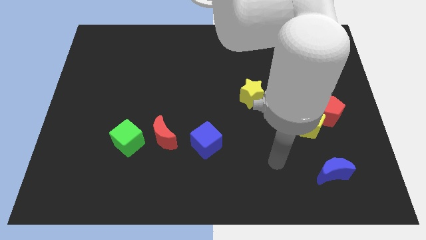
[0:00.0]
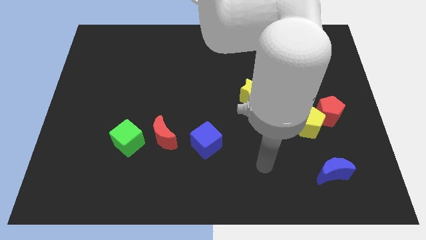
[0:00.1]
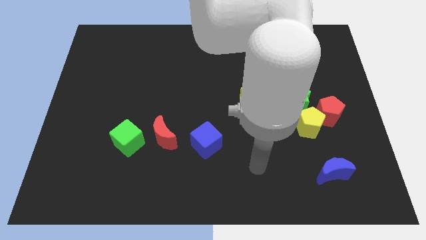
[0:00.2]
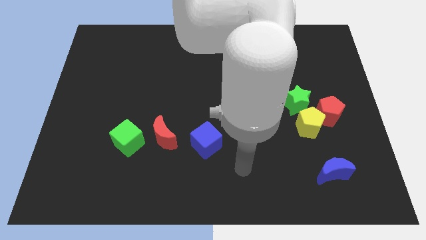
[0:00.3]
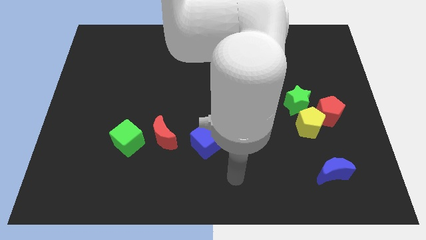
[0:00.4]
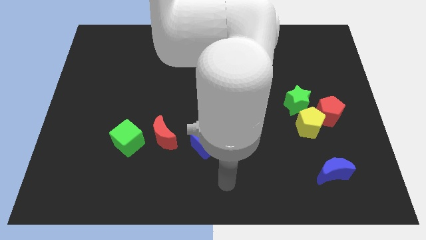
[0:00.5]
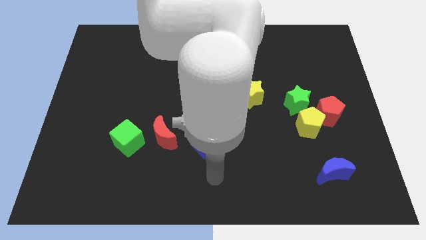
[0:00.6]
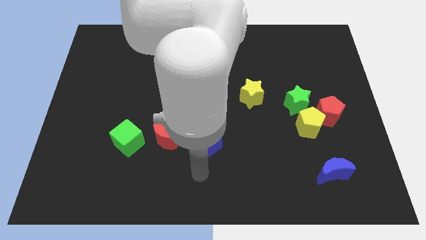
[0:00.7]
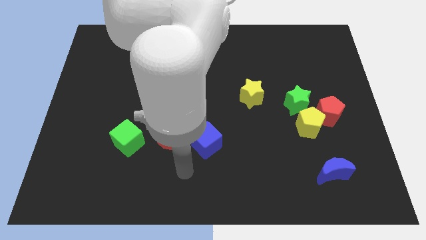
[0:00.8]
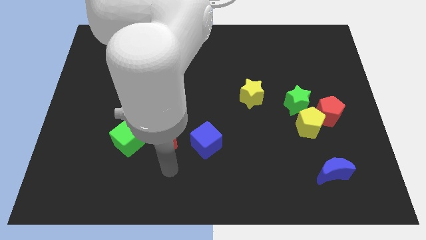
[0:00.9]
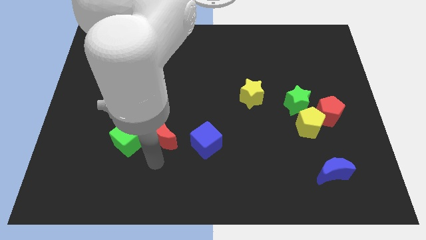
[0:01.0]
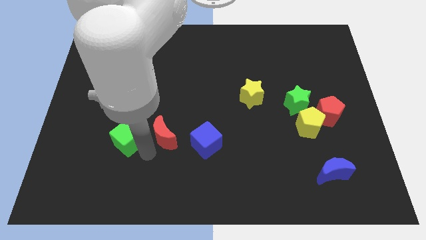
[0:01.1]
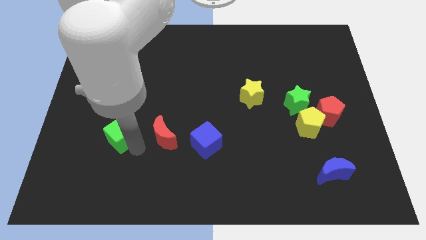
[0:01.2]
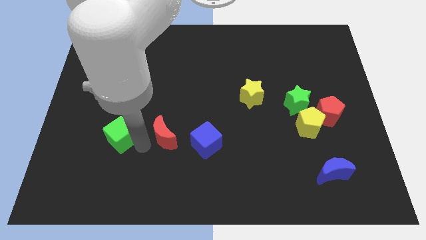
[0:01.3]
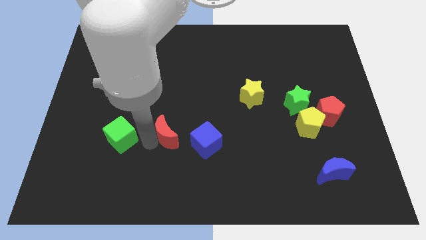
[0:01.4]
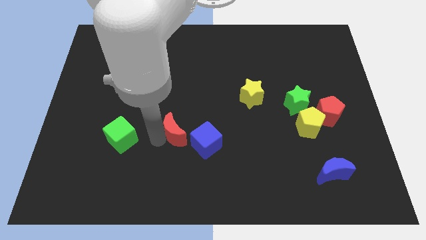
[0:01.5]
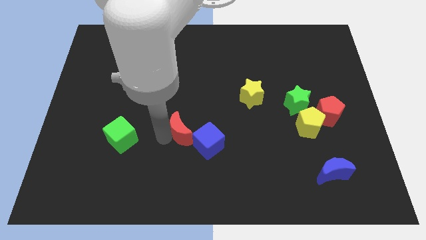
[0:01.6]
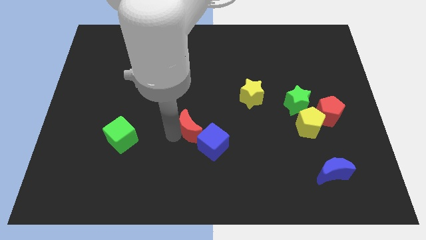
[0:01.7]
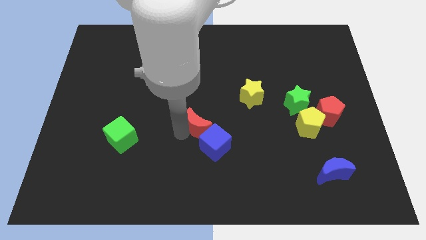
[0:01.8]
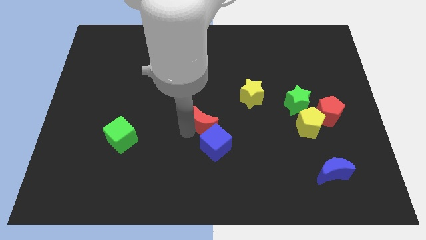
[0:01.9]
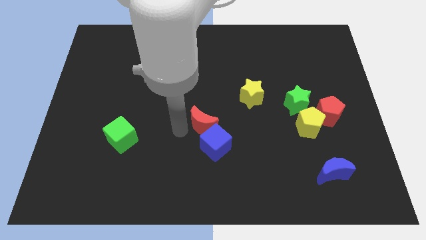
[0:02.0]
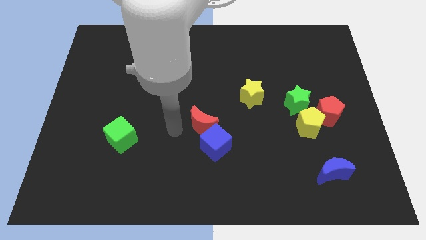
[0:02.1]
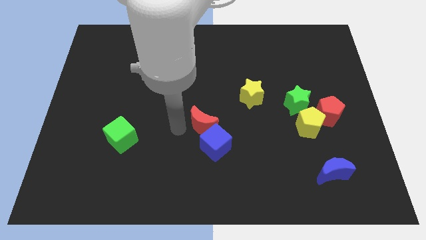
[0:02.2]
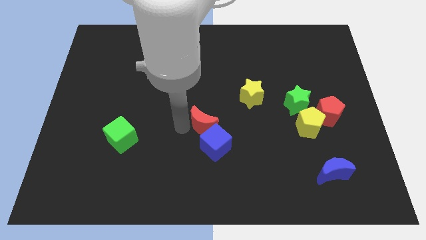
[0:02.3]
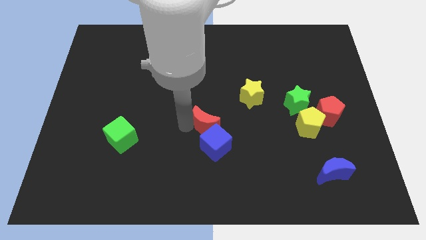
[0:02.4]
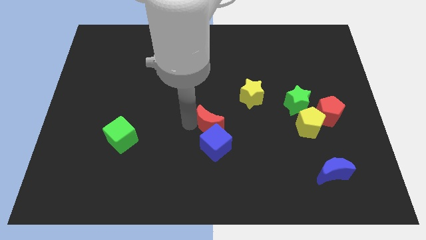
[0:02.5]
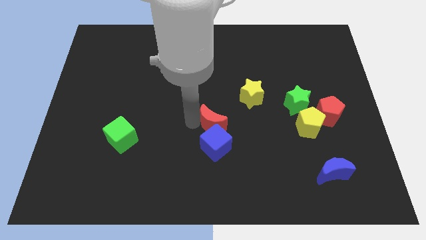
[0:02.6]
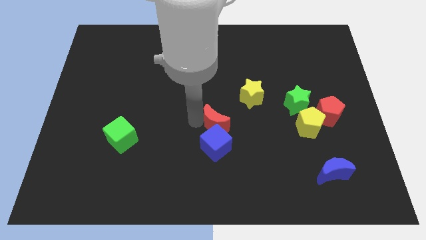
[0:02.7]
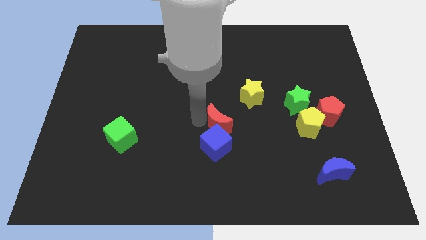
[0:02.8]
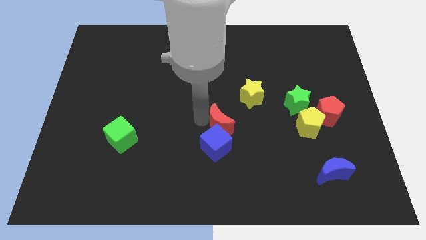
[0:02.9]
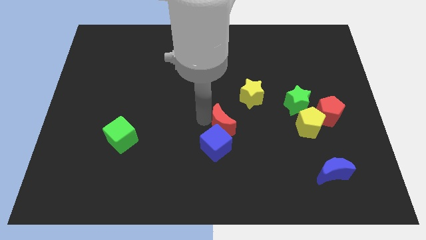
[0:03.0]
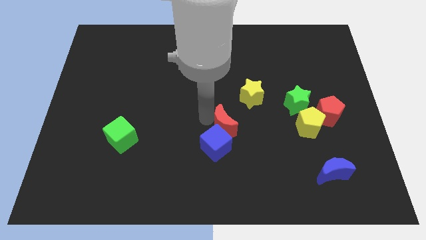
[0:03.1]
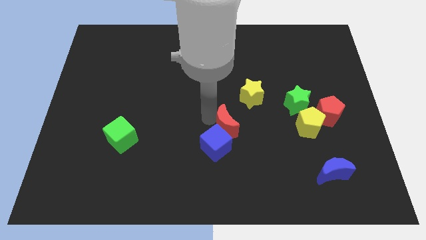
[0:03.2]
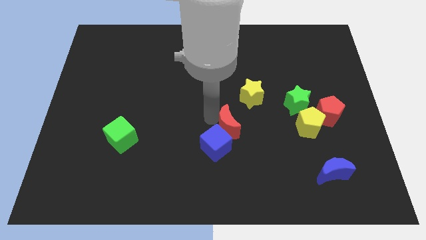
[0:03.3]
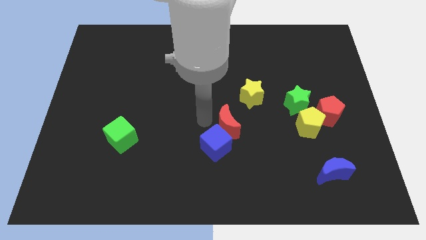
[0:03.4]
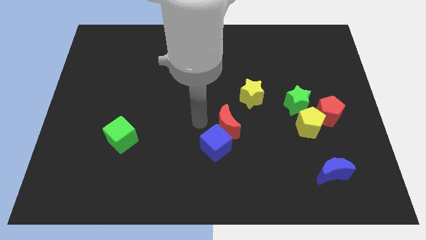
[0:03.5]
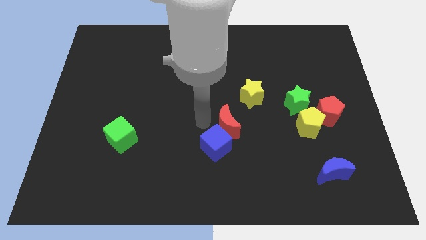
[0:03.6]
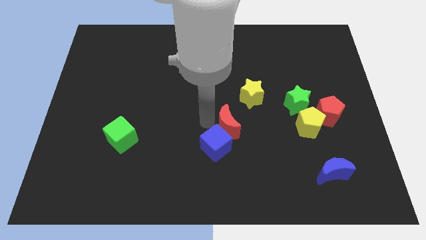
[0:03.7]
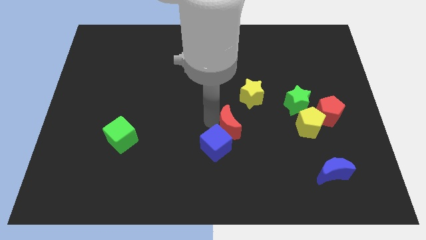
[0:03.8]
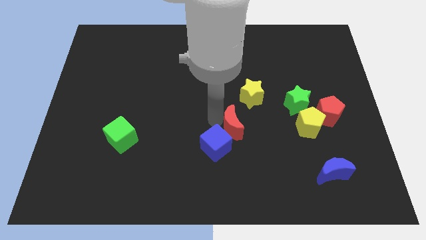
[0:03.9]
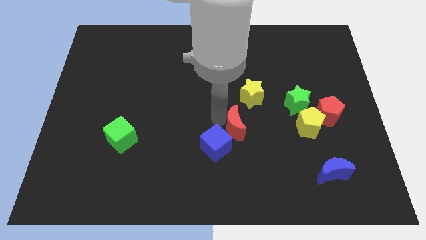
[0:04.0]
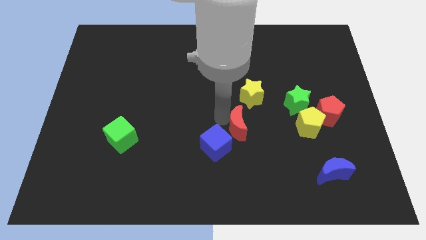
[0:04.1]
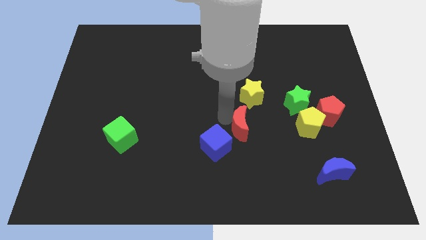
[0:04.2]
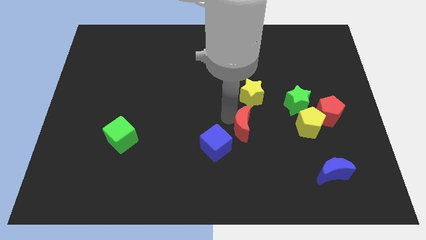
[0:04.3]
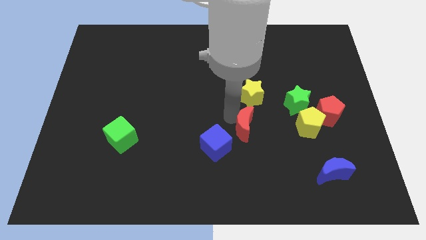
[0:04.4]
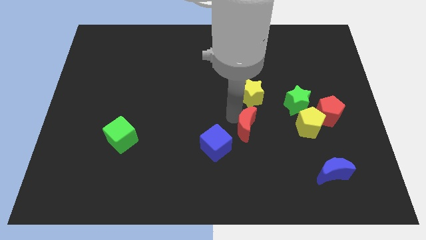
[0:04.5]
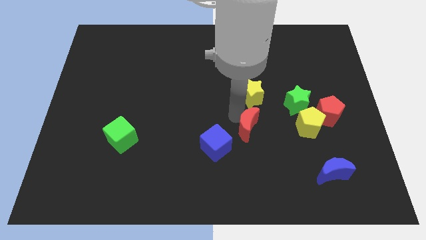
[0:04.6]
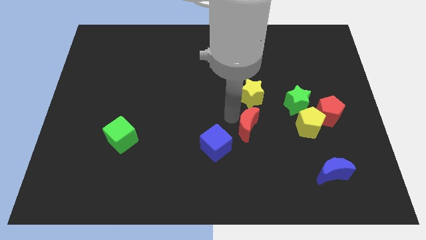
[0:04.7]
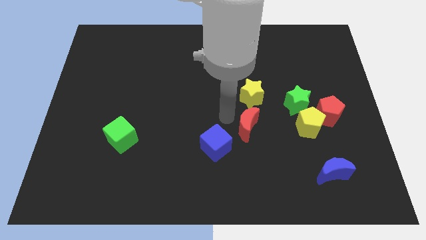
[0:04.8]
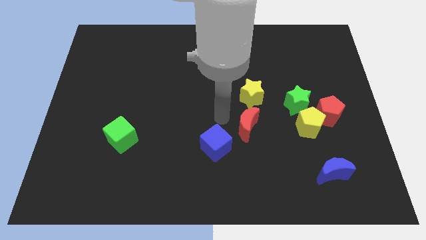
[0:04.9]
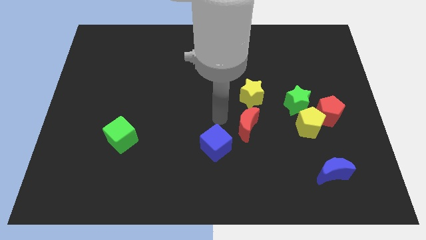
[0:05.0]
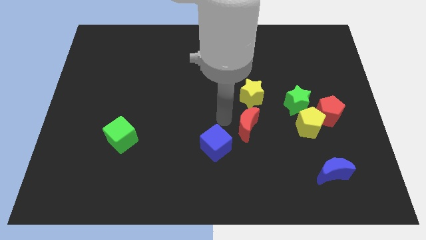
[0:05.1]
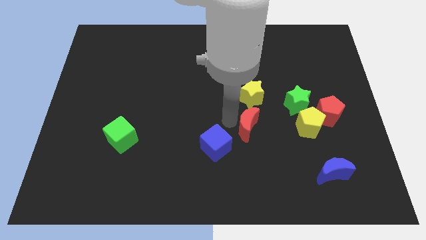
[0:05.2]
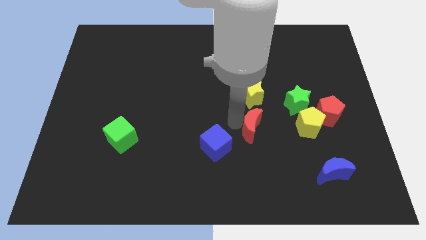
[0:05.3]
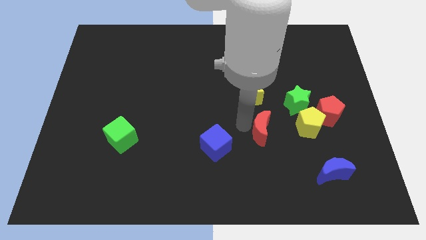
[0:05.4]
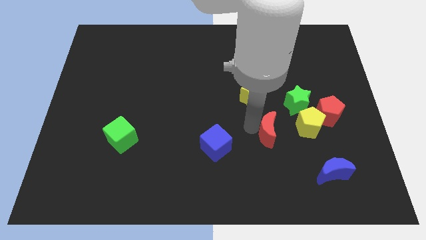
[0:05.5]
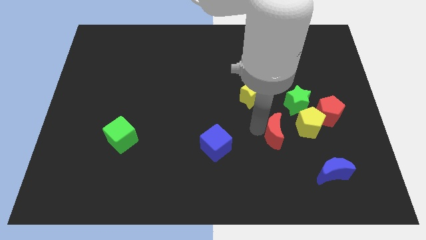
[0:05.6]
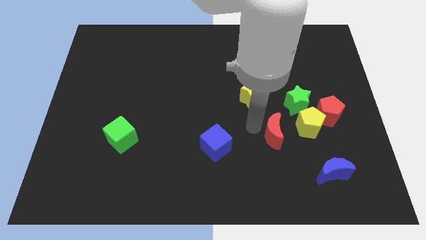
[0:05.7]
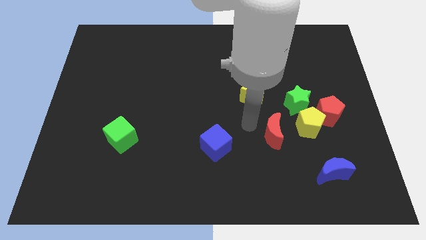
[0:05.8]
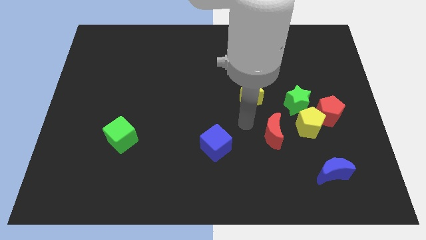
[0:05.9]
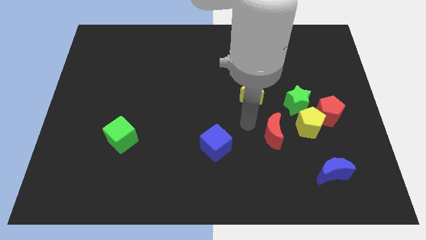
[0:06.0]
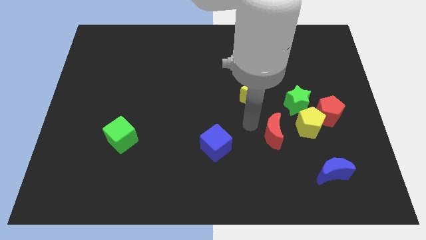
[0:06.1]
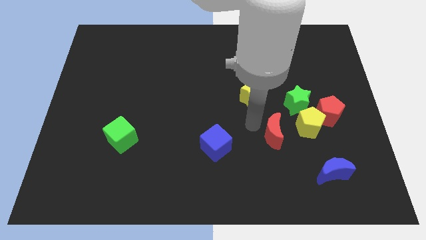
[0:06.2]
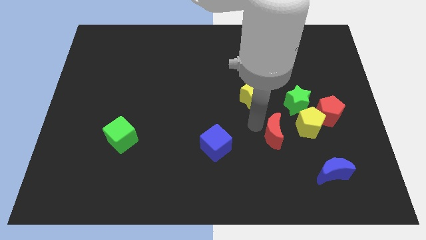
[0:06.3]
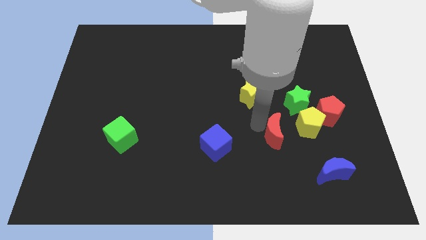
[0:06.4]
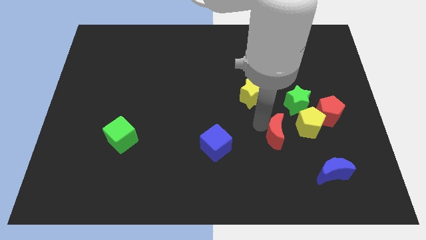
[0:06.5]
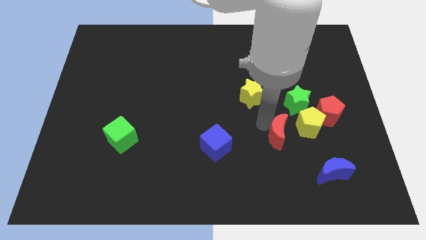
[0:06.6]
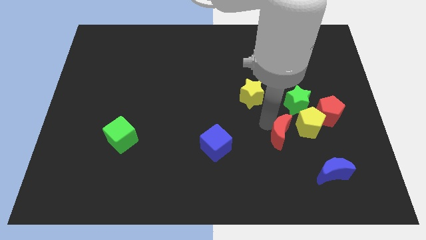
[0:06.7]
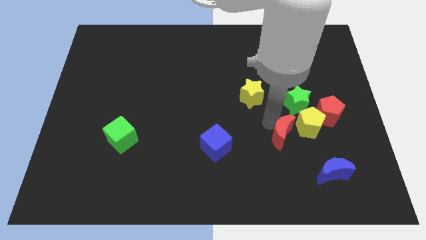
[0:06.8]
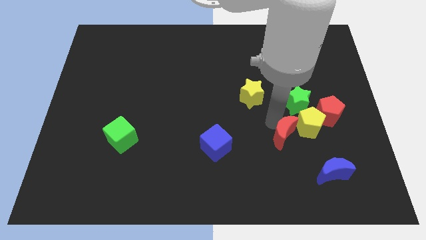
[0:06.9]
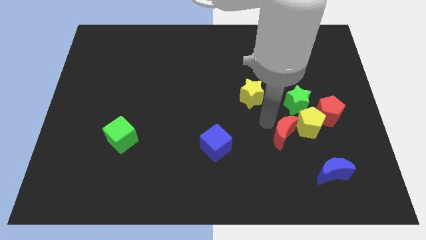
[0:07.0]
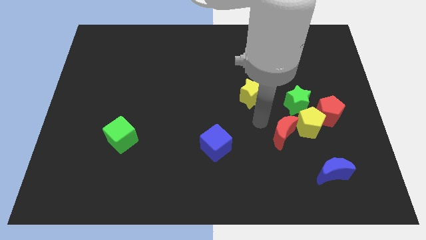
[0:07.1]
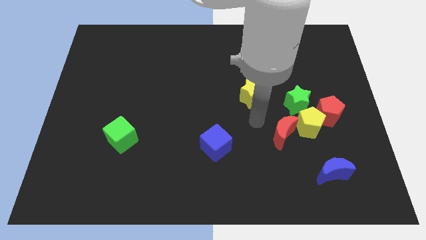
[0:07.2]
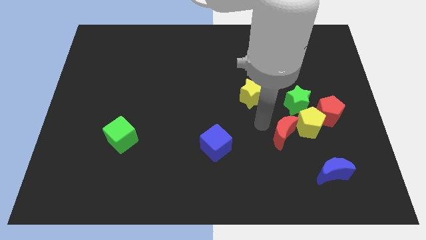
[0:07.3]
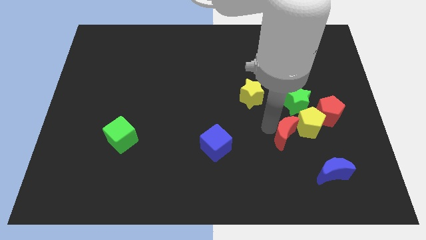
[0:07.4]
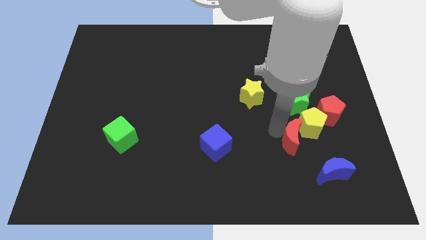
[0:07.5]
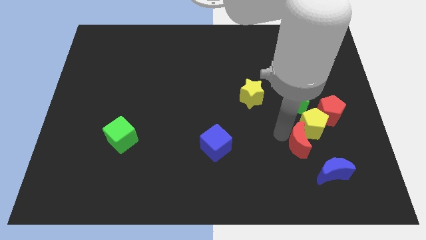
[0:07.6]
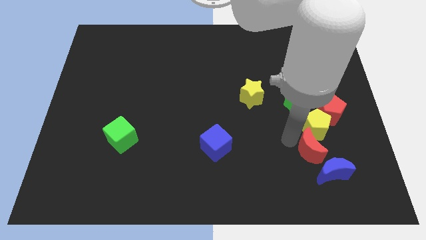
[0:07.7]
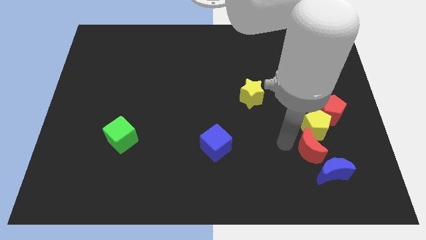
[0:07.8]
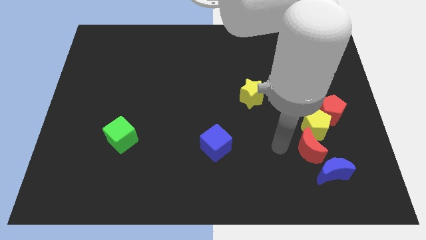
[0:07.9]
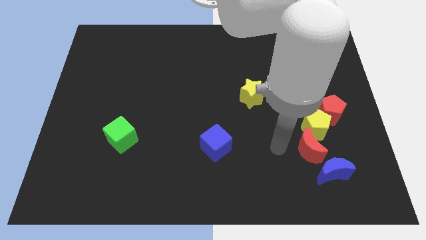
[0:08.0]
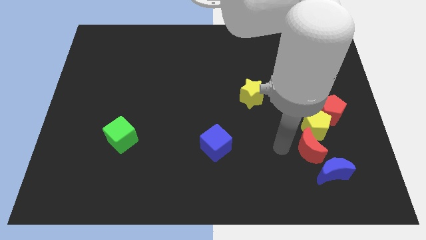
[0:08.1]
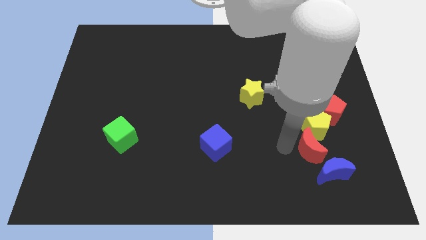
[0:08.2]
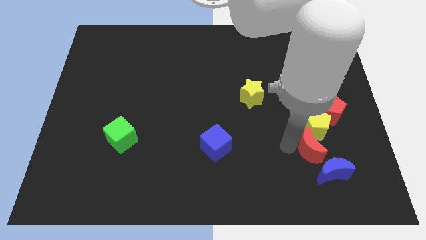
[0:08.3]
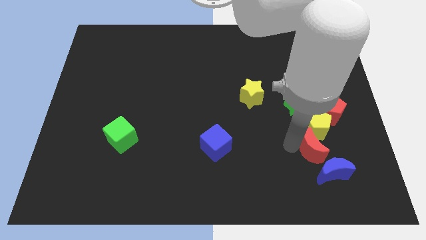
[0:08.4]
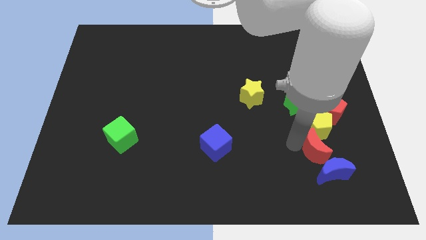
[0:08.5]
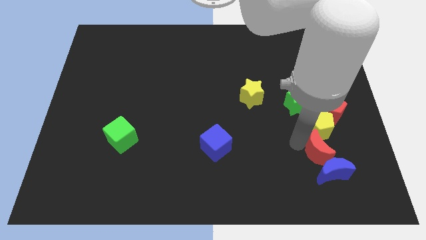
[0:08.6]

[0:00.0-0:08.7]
move the red moon to the bottom side of the red pentagon
